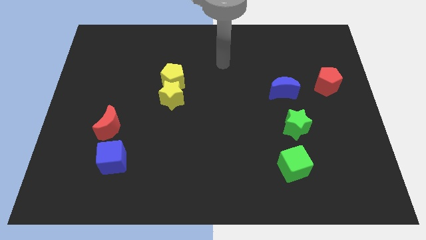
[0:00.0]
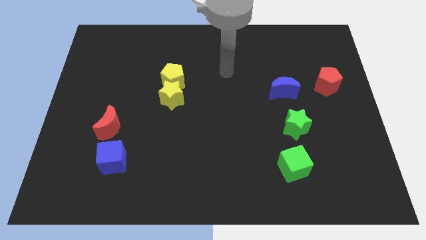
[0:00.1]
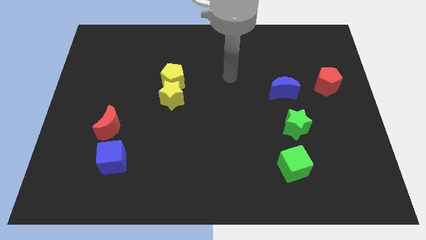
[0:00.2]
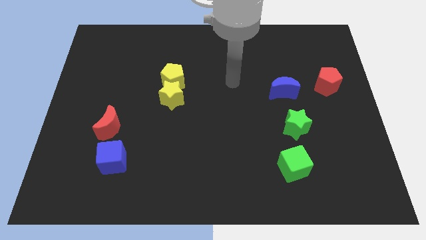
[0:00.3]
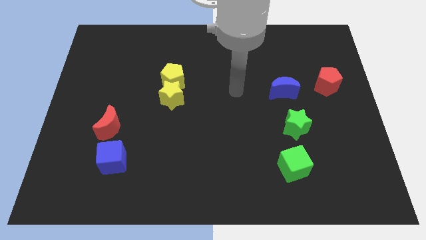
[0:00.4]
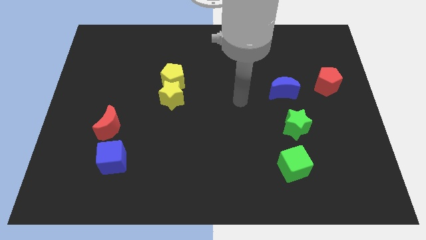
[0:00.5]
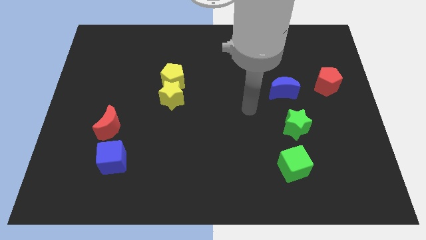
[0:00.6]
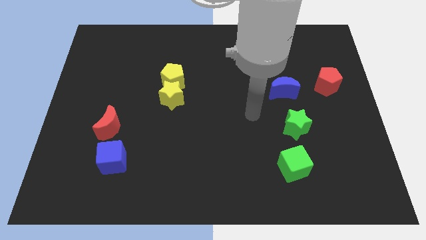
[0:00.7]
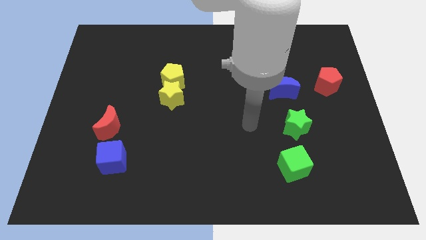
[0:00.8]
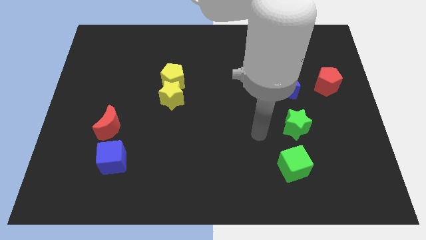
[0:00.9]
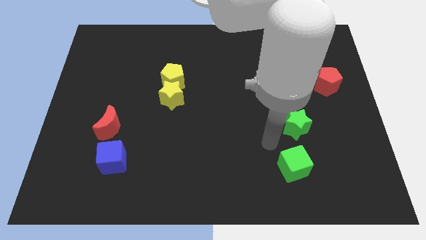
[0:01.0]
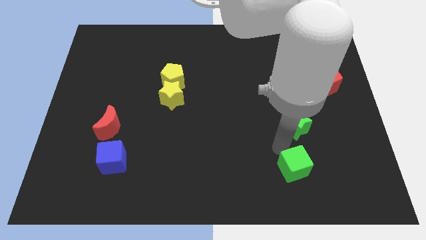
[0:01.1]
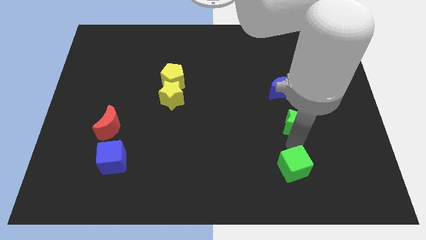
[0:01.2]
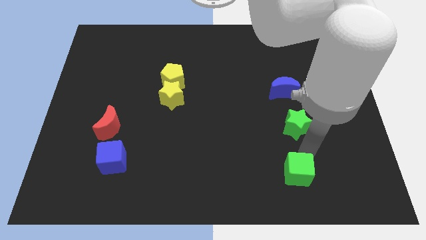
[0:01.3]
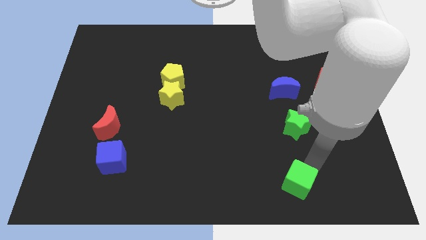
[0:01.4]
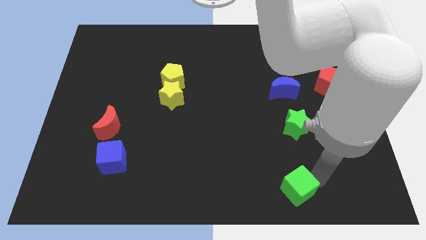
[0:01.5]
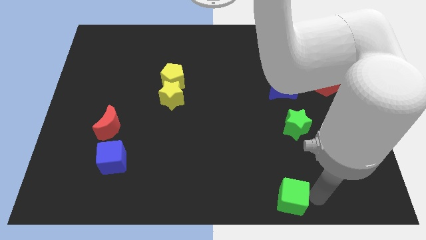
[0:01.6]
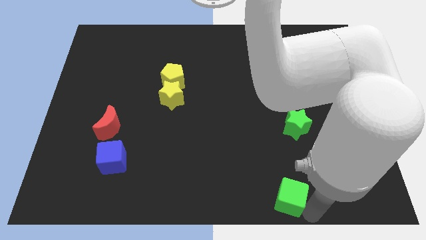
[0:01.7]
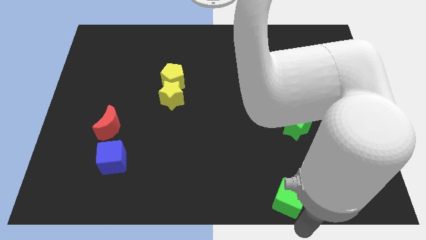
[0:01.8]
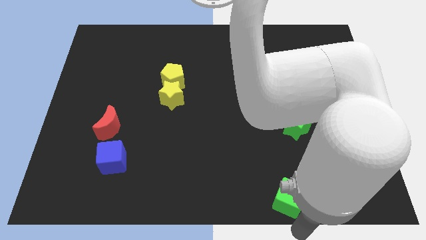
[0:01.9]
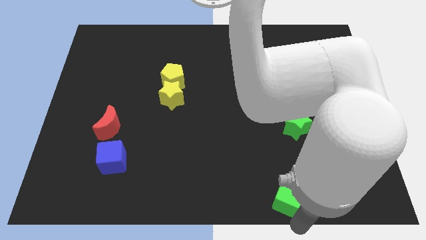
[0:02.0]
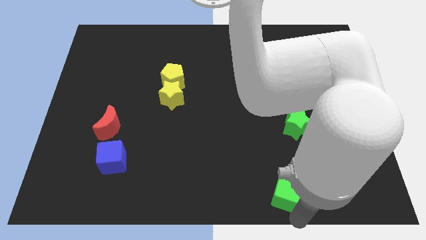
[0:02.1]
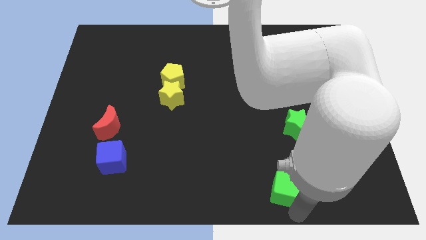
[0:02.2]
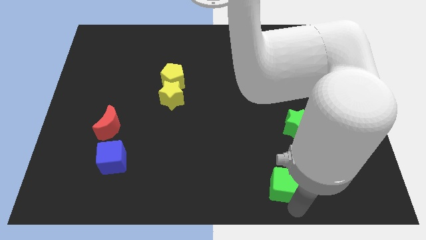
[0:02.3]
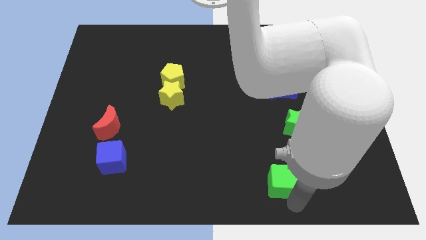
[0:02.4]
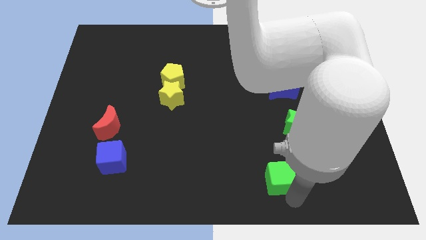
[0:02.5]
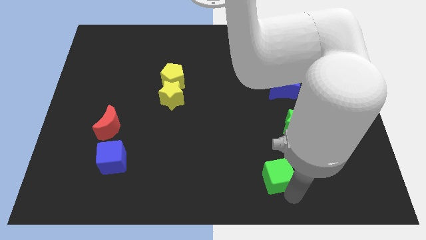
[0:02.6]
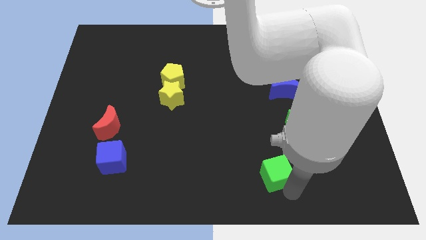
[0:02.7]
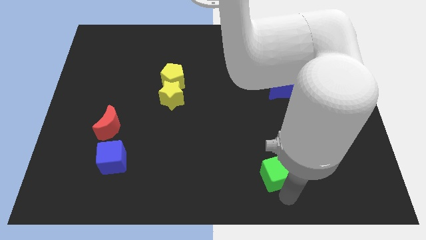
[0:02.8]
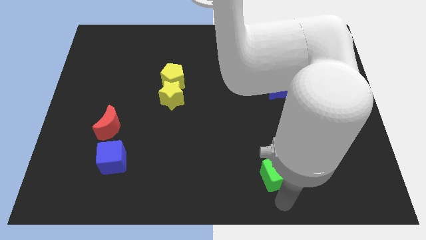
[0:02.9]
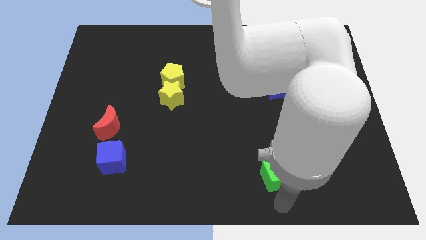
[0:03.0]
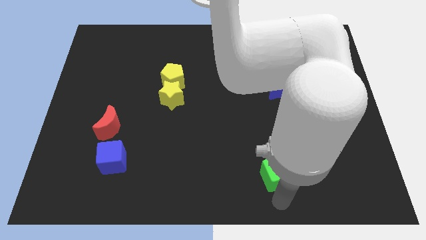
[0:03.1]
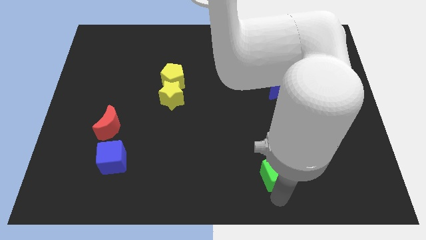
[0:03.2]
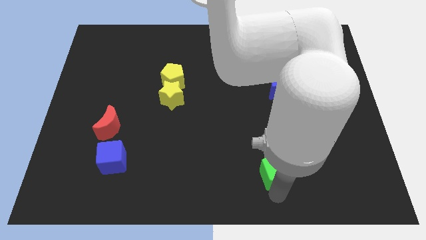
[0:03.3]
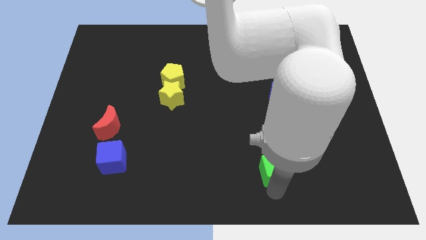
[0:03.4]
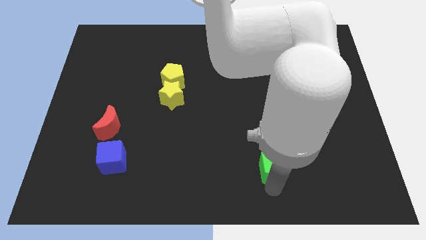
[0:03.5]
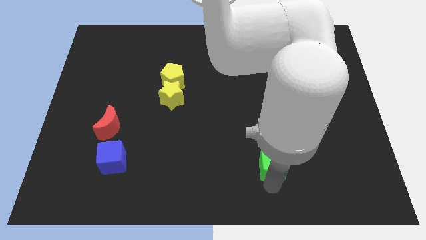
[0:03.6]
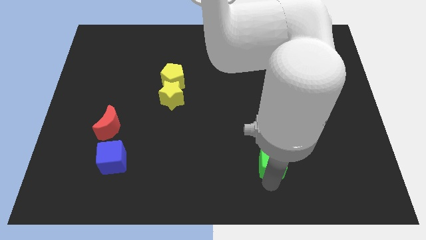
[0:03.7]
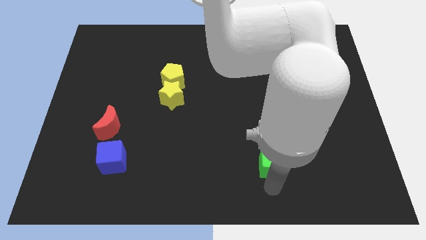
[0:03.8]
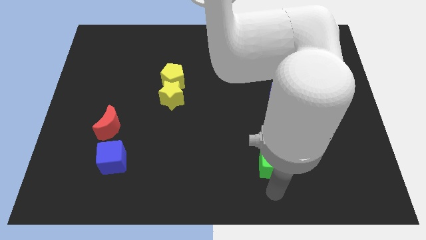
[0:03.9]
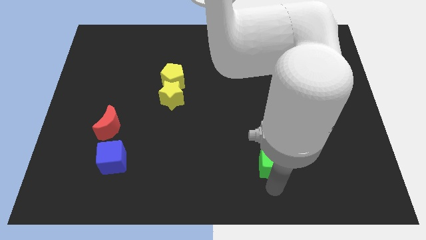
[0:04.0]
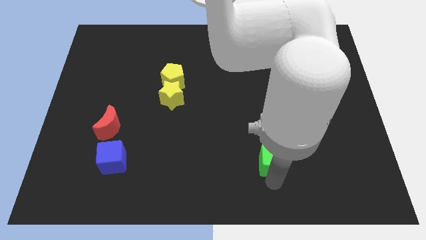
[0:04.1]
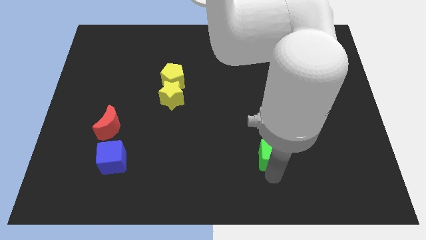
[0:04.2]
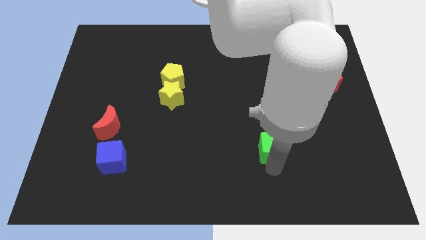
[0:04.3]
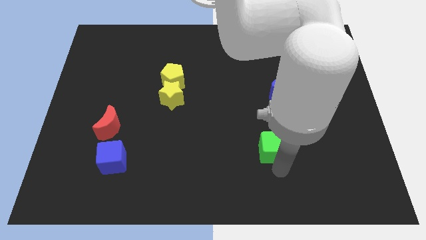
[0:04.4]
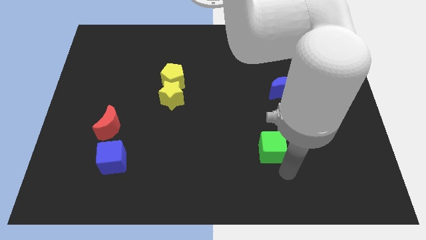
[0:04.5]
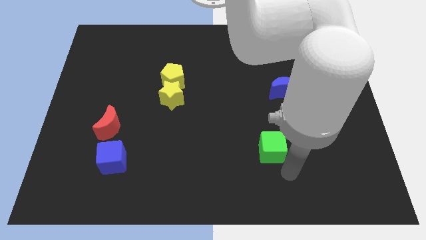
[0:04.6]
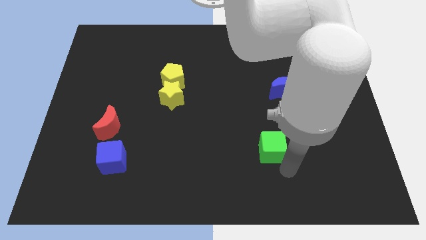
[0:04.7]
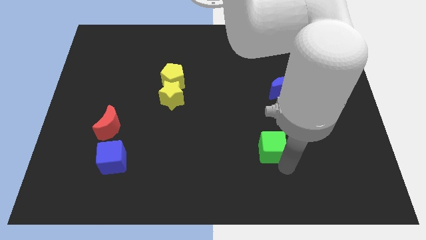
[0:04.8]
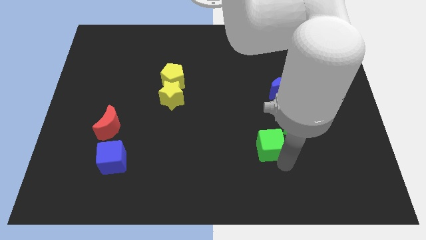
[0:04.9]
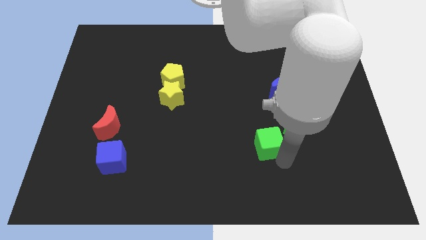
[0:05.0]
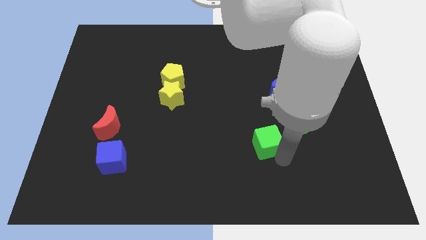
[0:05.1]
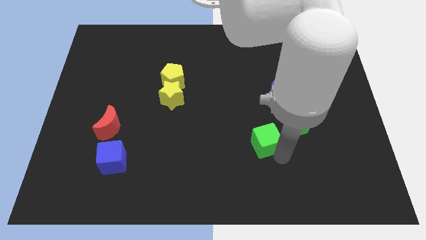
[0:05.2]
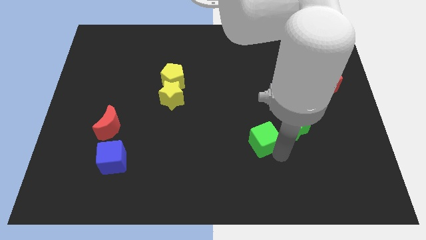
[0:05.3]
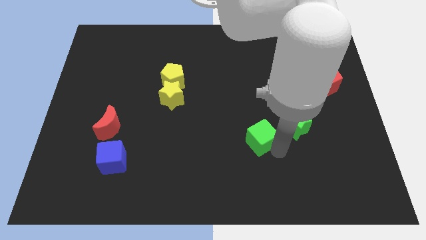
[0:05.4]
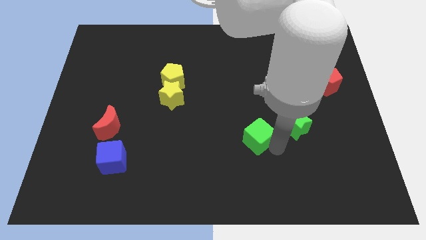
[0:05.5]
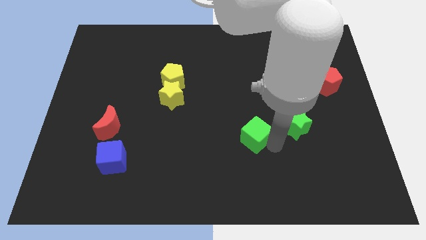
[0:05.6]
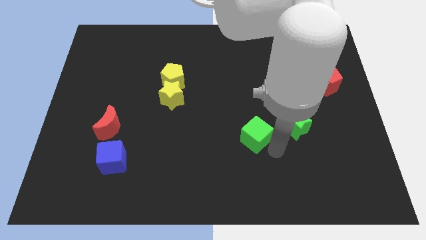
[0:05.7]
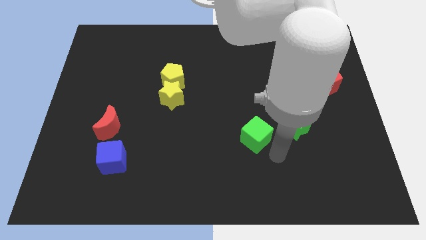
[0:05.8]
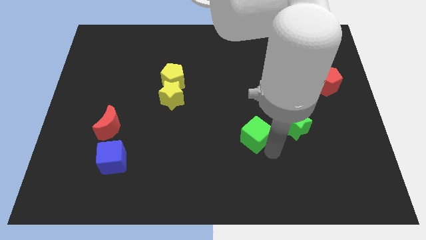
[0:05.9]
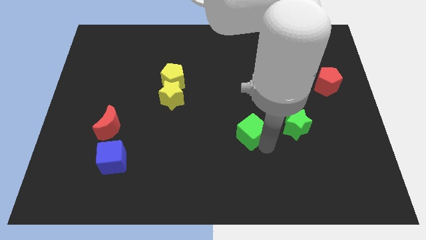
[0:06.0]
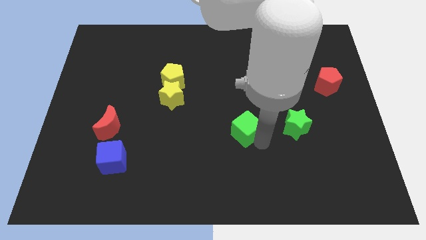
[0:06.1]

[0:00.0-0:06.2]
slide the green cube to the center of the board
